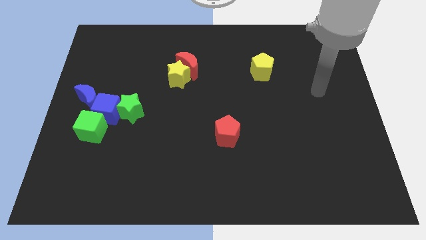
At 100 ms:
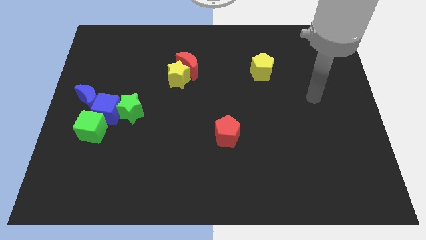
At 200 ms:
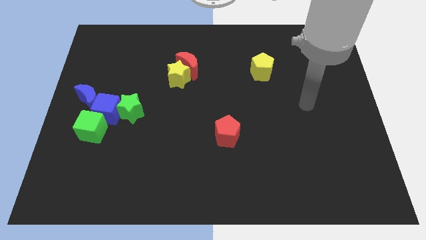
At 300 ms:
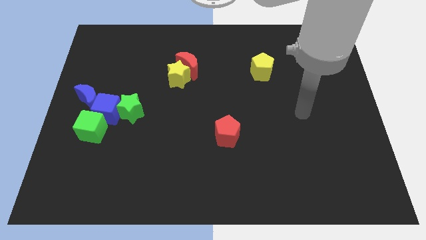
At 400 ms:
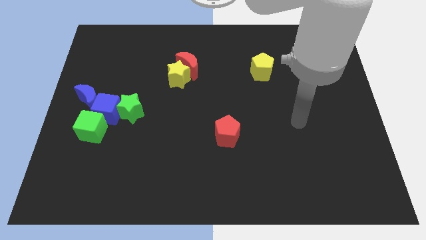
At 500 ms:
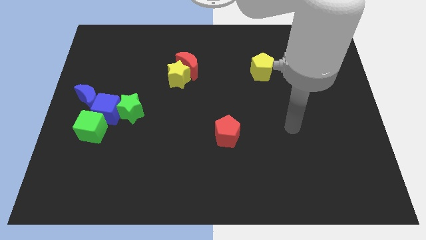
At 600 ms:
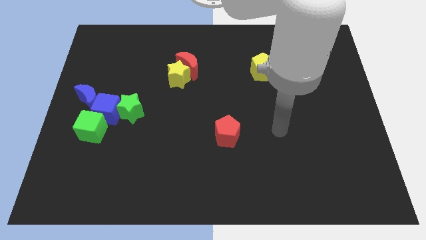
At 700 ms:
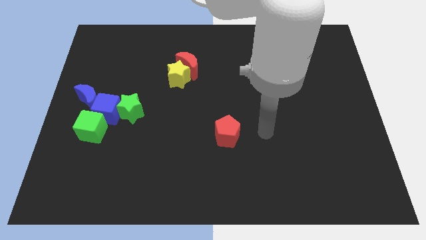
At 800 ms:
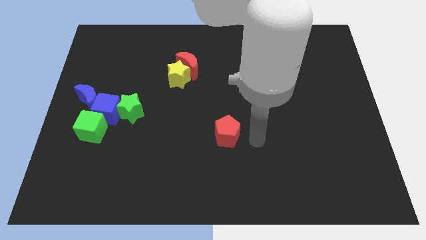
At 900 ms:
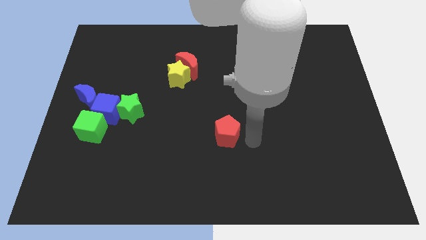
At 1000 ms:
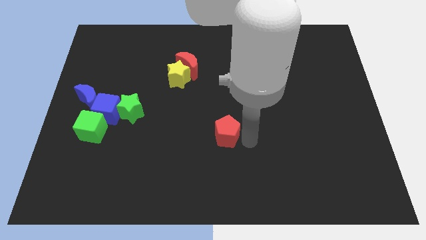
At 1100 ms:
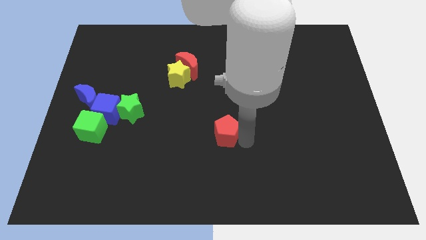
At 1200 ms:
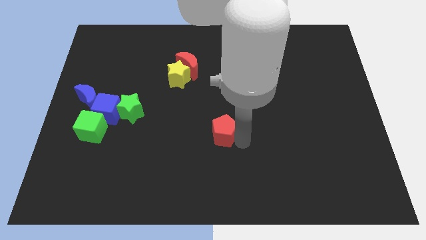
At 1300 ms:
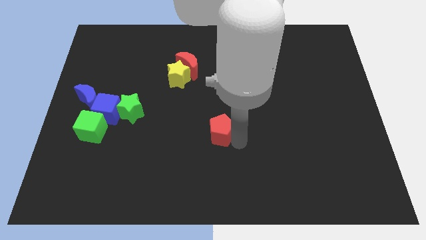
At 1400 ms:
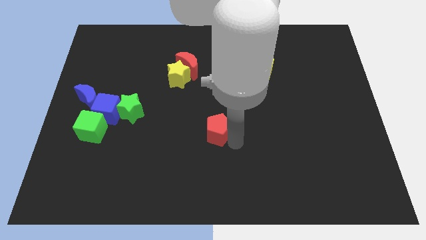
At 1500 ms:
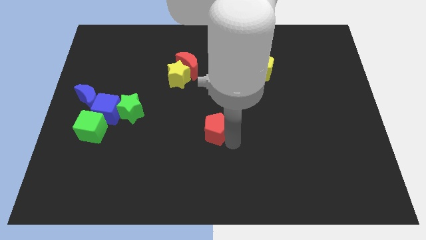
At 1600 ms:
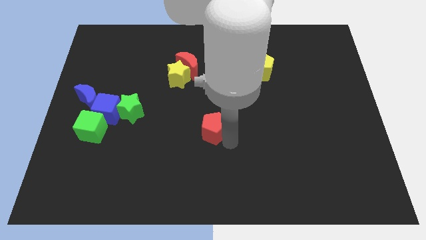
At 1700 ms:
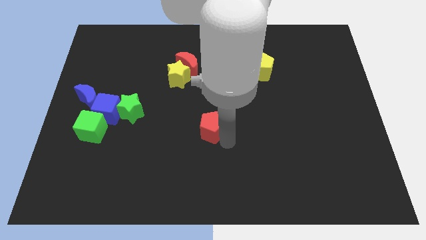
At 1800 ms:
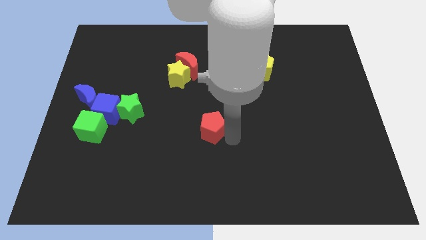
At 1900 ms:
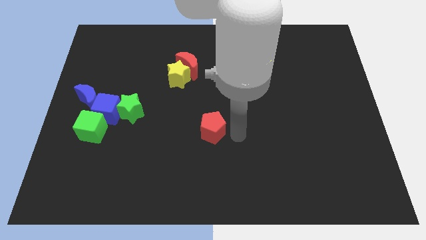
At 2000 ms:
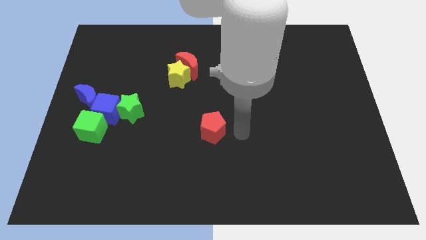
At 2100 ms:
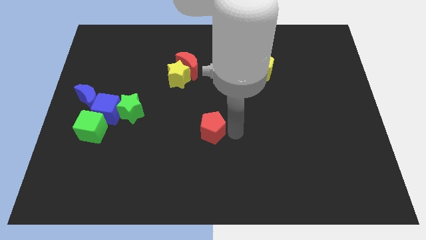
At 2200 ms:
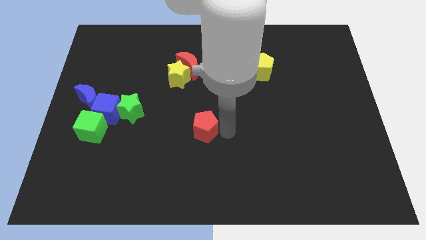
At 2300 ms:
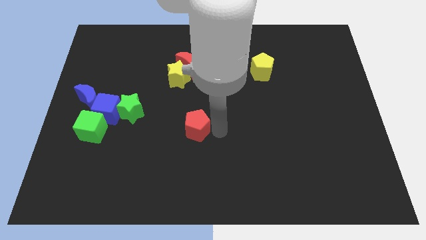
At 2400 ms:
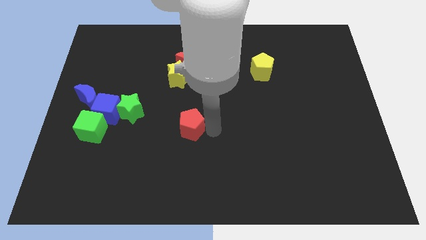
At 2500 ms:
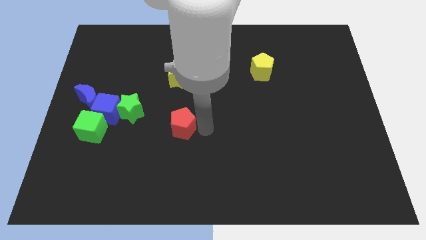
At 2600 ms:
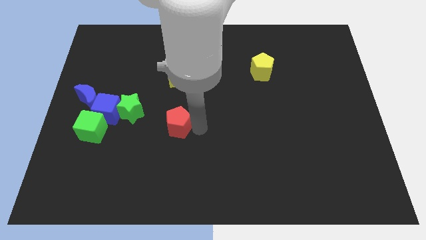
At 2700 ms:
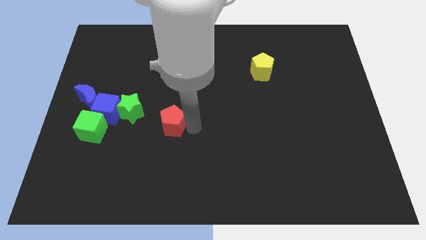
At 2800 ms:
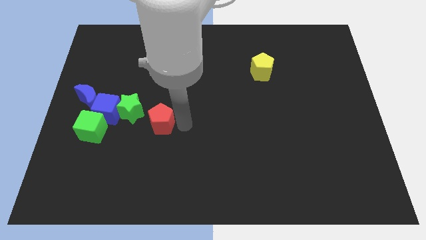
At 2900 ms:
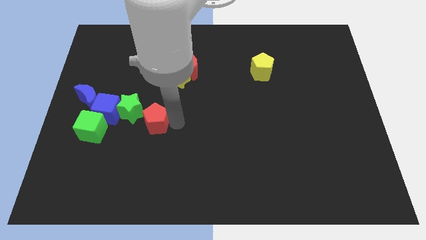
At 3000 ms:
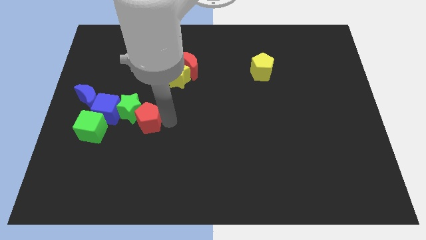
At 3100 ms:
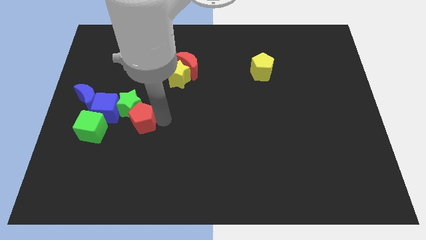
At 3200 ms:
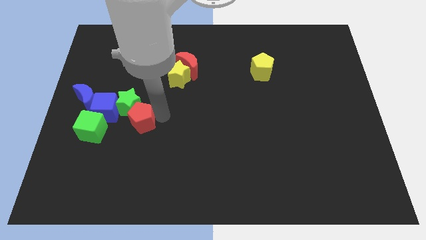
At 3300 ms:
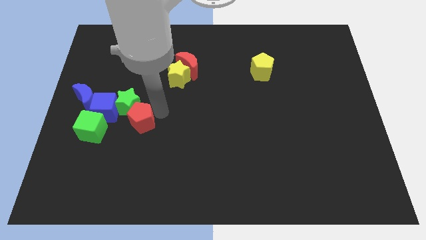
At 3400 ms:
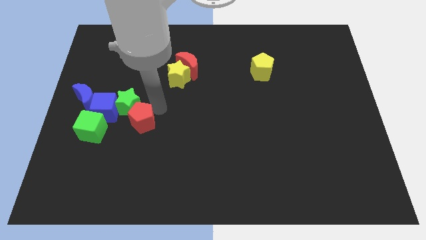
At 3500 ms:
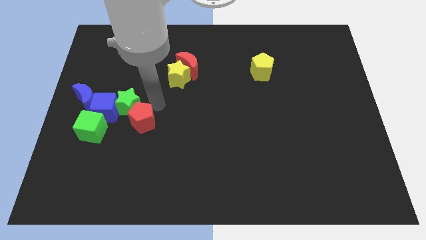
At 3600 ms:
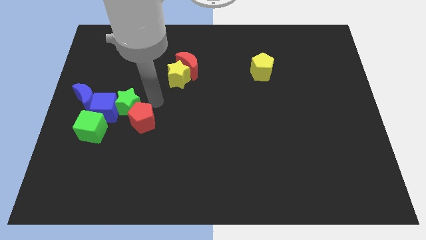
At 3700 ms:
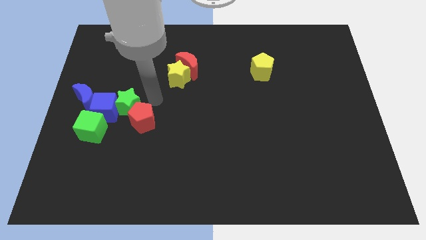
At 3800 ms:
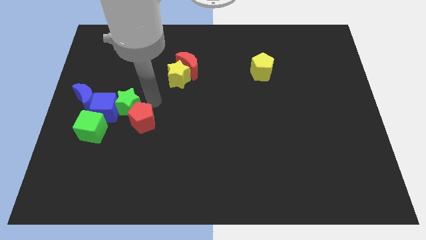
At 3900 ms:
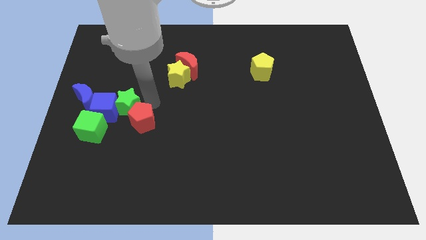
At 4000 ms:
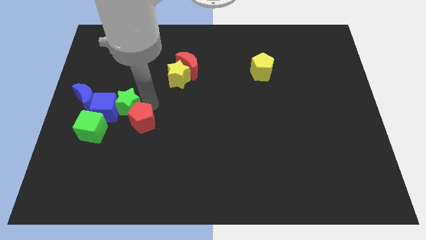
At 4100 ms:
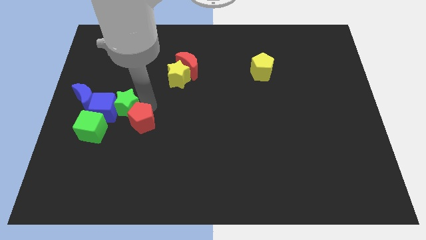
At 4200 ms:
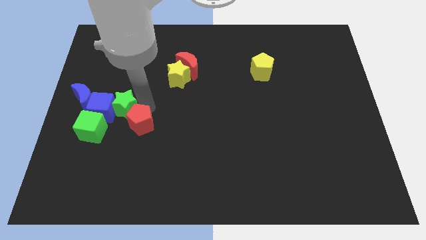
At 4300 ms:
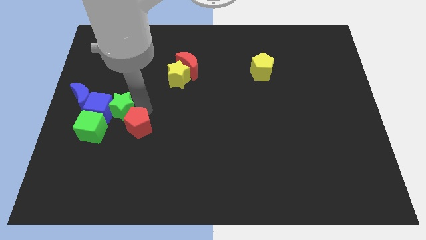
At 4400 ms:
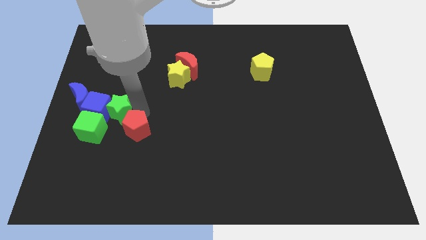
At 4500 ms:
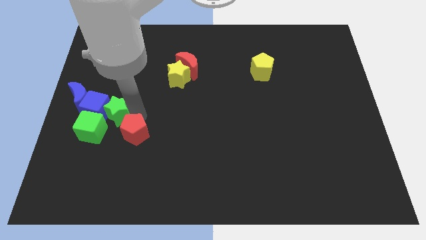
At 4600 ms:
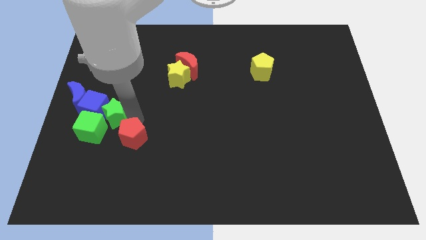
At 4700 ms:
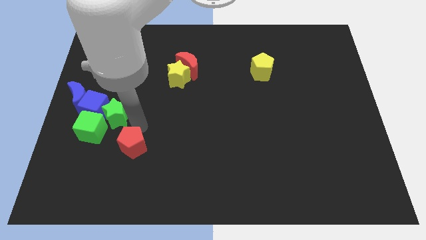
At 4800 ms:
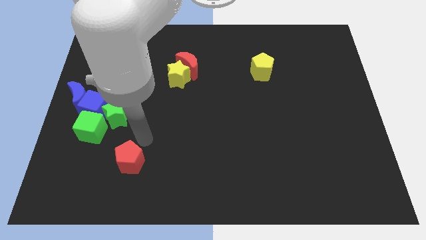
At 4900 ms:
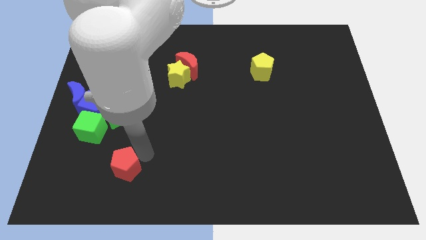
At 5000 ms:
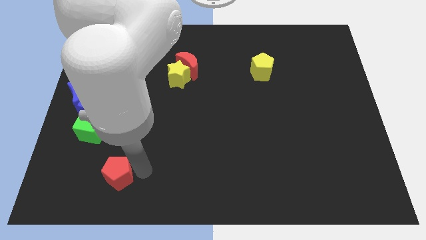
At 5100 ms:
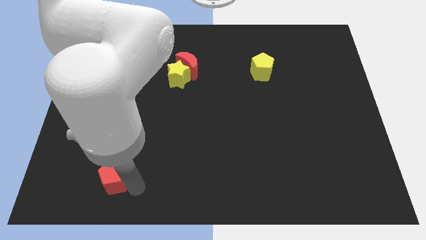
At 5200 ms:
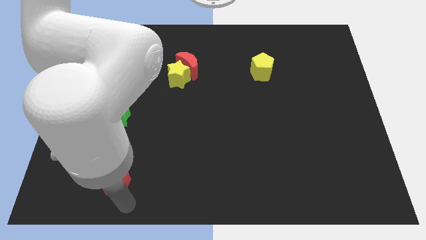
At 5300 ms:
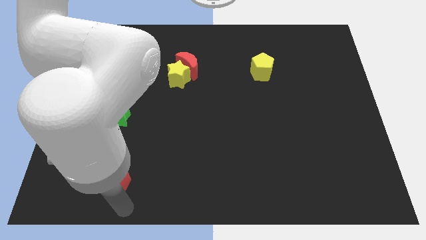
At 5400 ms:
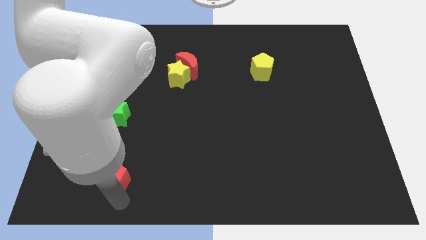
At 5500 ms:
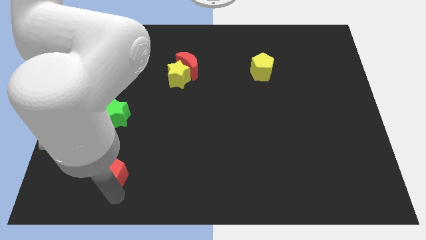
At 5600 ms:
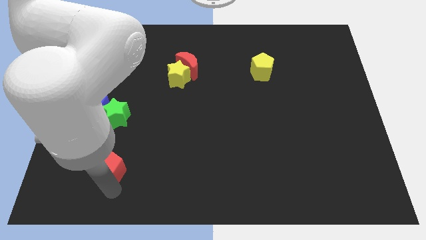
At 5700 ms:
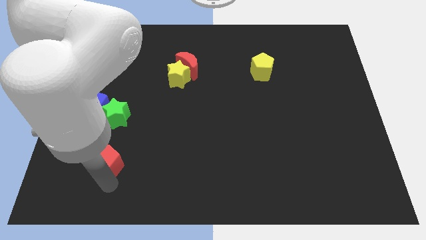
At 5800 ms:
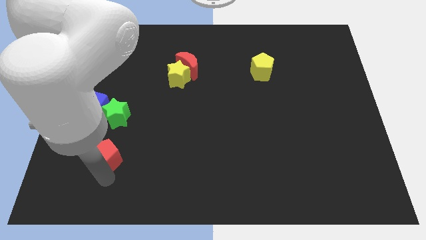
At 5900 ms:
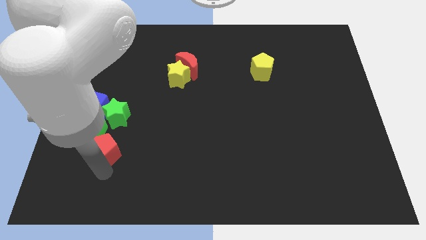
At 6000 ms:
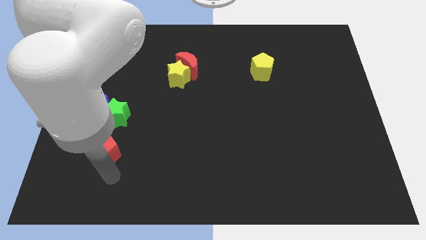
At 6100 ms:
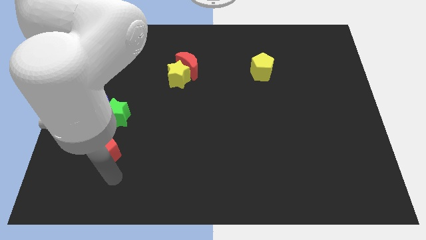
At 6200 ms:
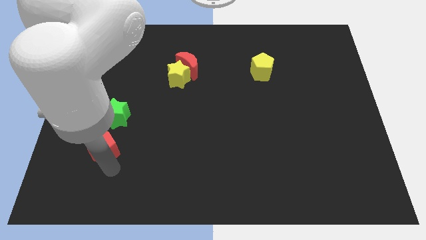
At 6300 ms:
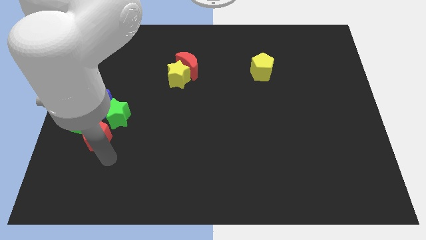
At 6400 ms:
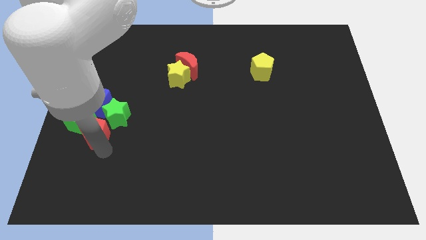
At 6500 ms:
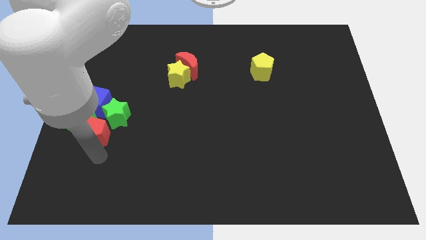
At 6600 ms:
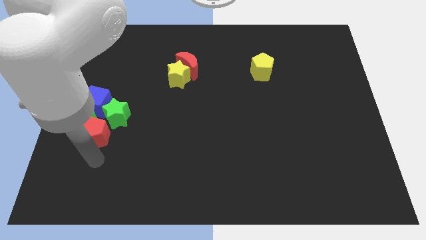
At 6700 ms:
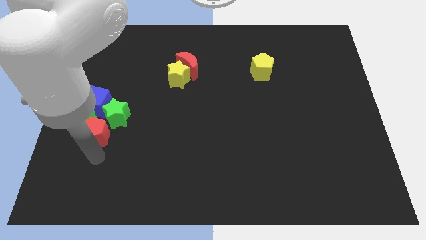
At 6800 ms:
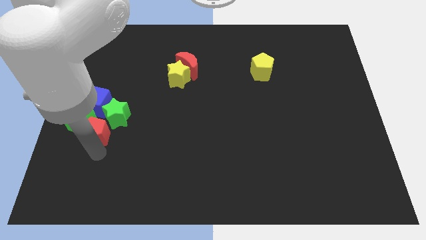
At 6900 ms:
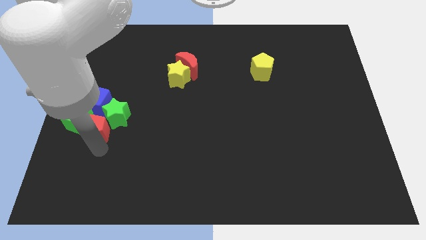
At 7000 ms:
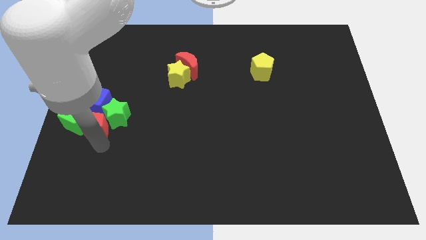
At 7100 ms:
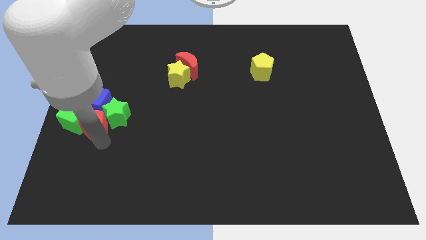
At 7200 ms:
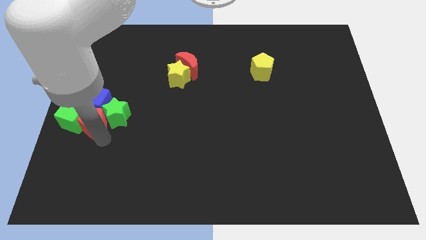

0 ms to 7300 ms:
slide the red pentagon next to the blue cube
